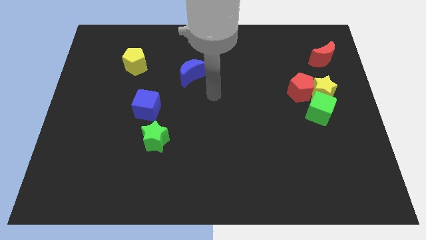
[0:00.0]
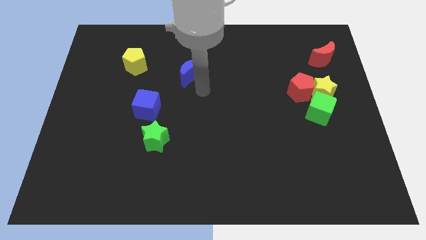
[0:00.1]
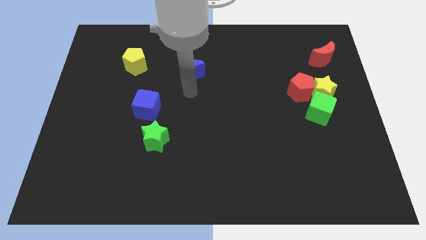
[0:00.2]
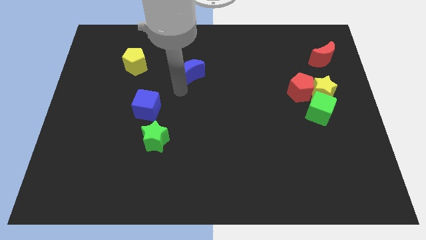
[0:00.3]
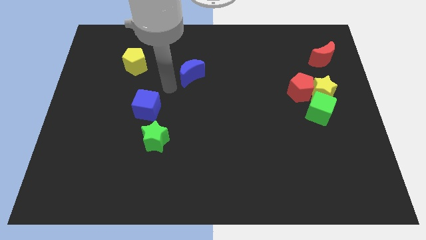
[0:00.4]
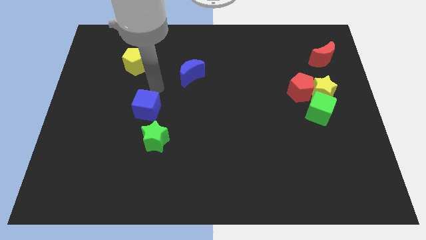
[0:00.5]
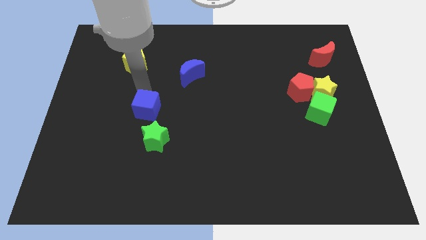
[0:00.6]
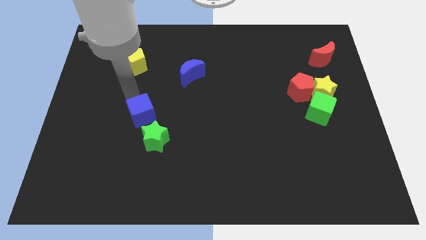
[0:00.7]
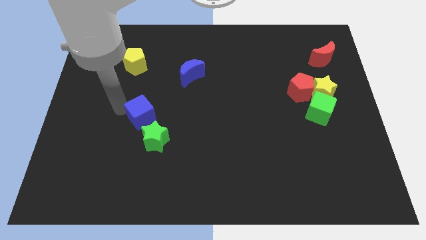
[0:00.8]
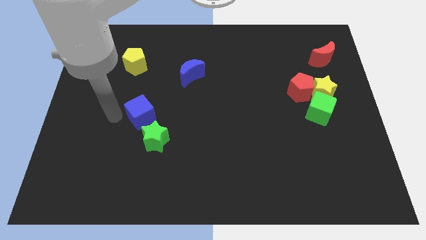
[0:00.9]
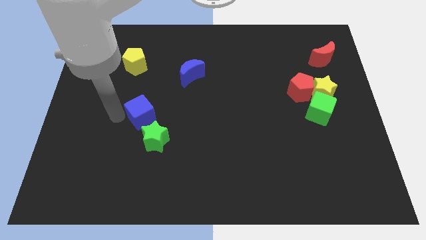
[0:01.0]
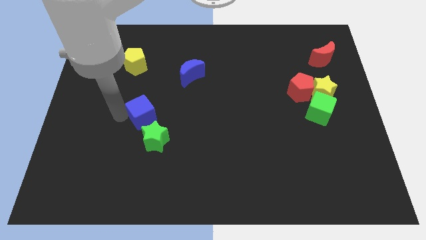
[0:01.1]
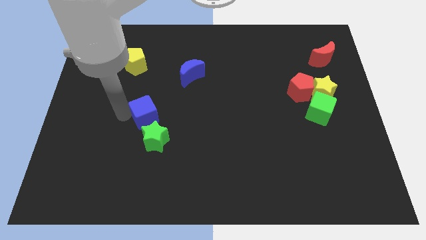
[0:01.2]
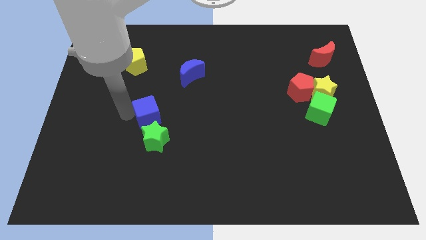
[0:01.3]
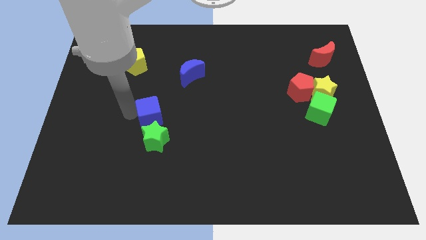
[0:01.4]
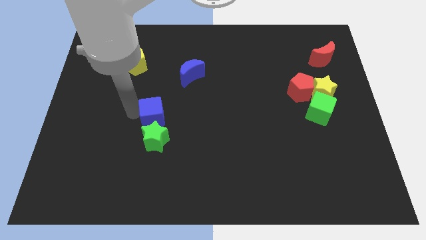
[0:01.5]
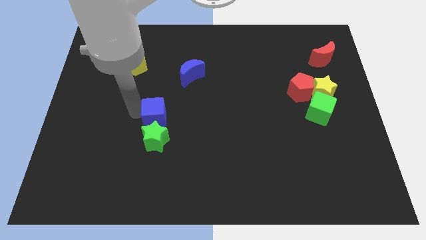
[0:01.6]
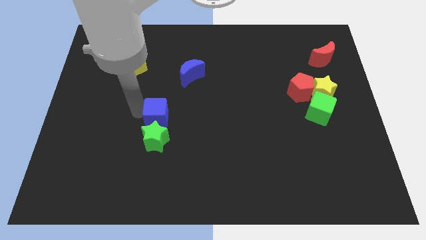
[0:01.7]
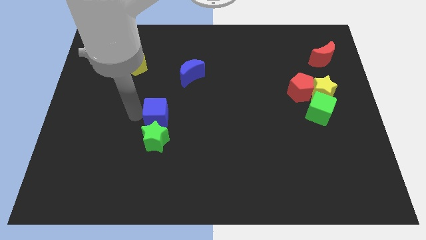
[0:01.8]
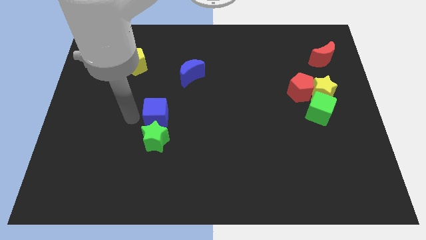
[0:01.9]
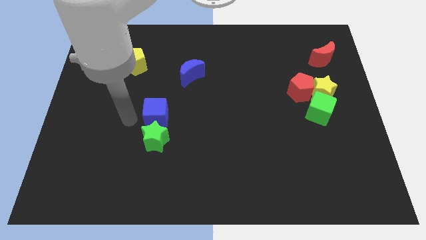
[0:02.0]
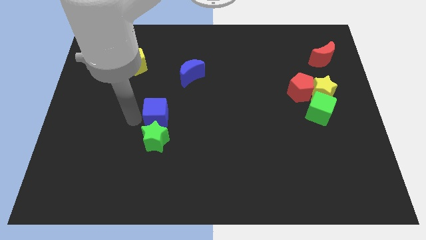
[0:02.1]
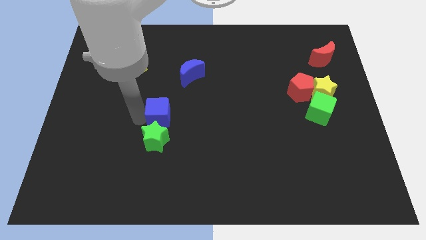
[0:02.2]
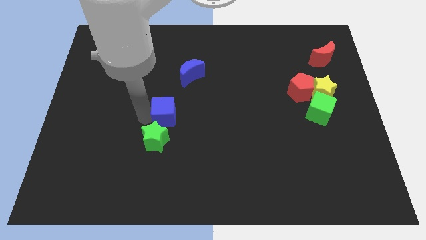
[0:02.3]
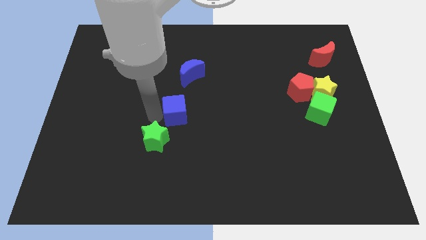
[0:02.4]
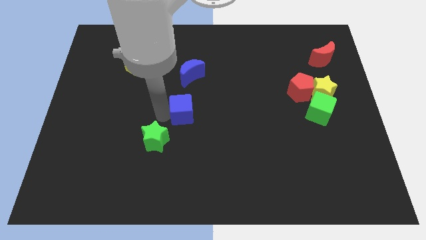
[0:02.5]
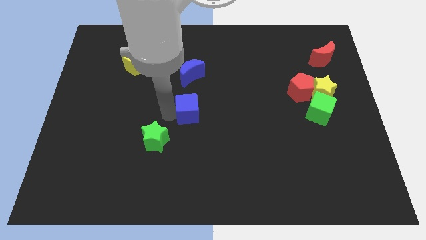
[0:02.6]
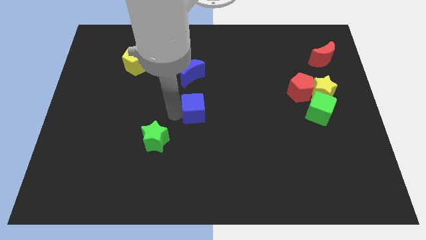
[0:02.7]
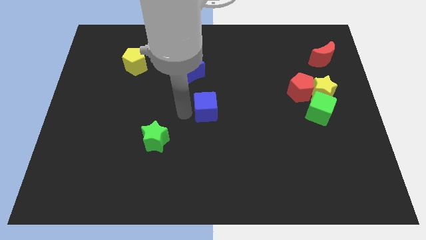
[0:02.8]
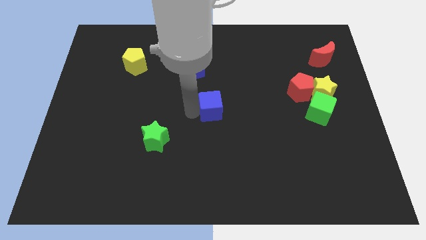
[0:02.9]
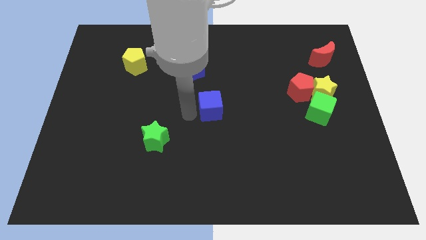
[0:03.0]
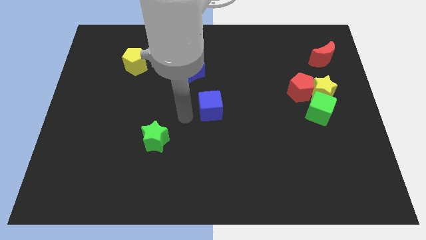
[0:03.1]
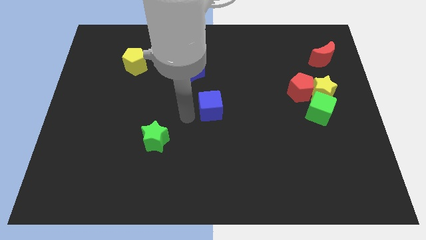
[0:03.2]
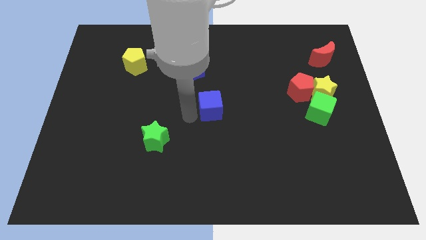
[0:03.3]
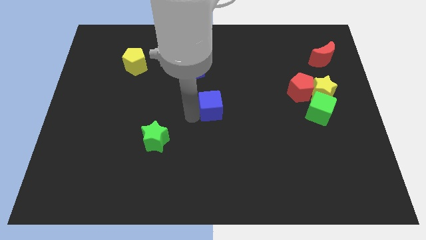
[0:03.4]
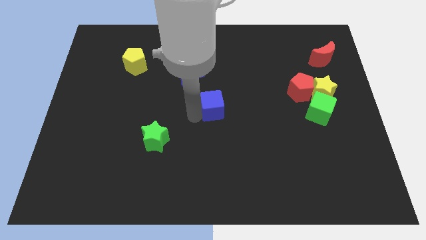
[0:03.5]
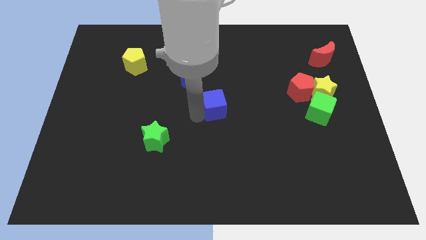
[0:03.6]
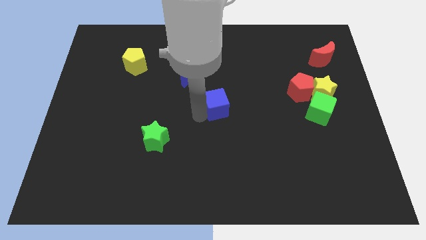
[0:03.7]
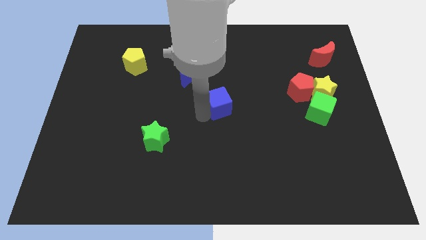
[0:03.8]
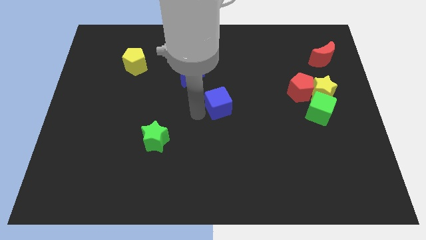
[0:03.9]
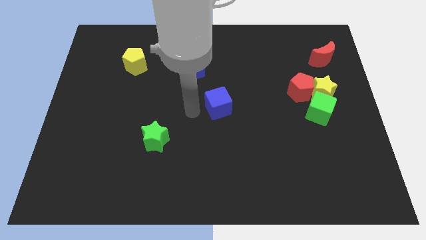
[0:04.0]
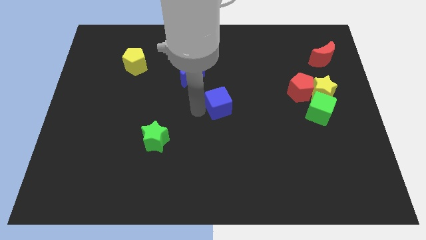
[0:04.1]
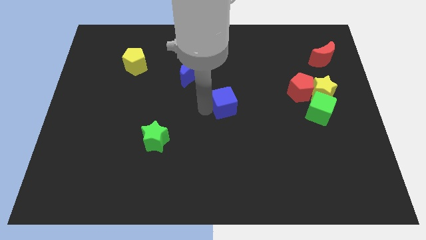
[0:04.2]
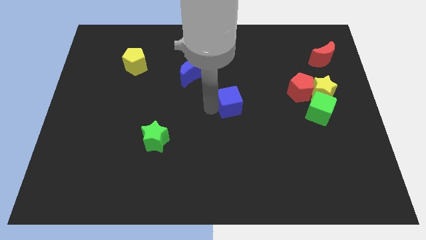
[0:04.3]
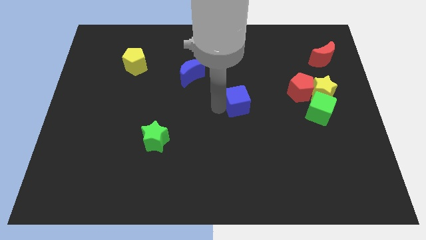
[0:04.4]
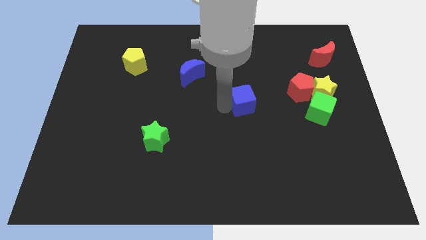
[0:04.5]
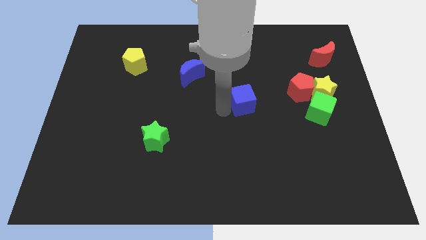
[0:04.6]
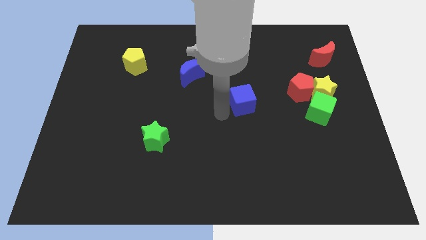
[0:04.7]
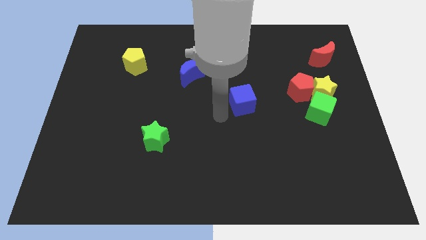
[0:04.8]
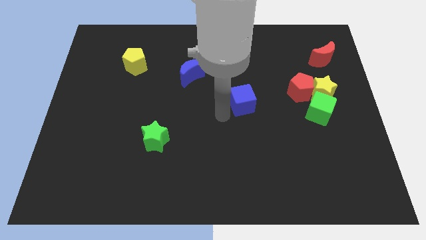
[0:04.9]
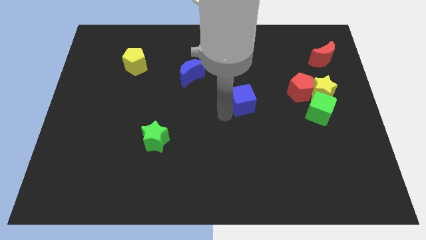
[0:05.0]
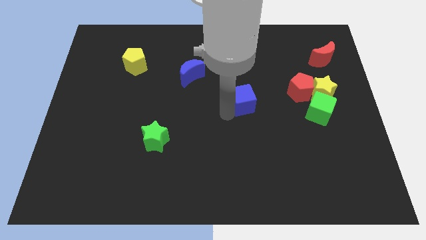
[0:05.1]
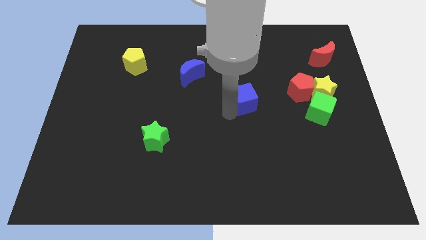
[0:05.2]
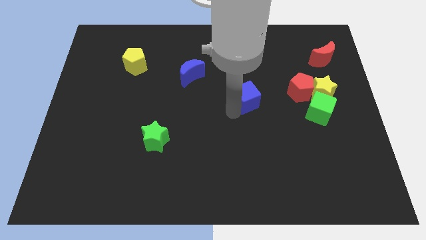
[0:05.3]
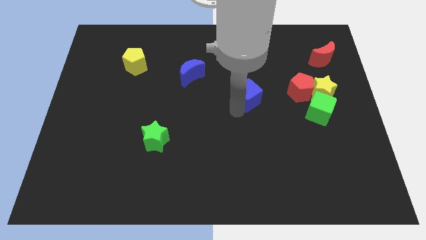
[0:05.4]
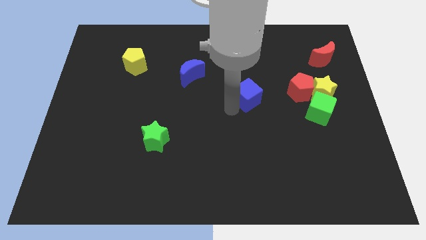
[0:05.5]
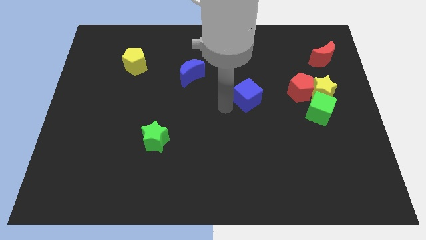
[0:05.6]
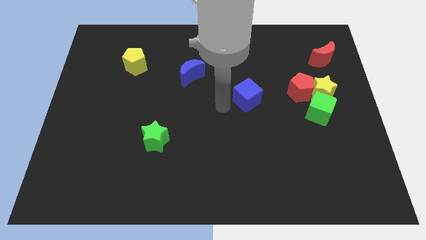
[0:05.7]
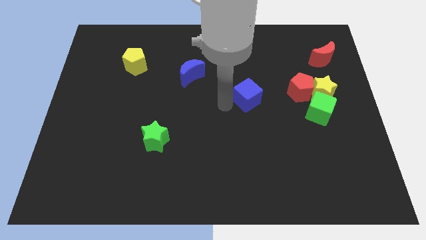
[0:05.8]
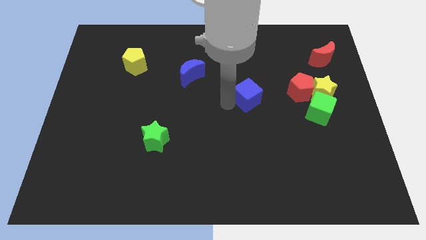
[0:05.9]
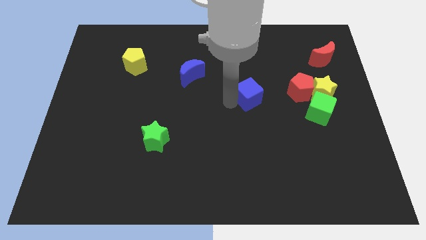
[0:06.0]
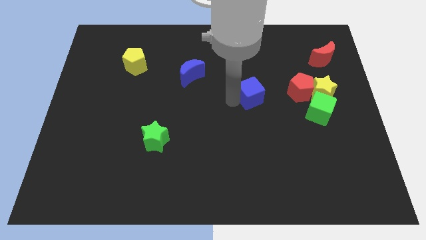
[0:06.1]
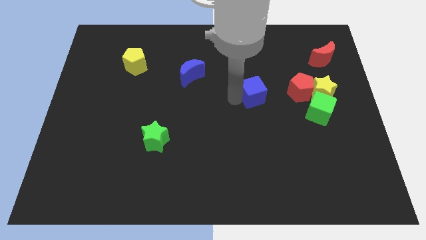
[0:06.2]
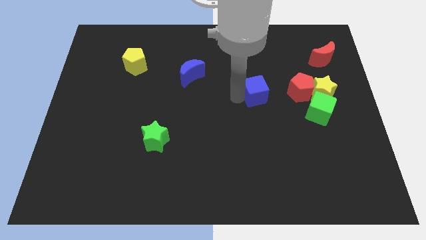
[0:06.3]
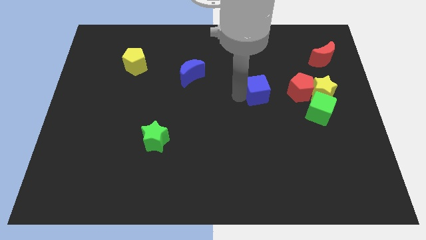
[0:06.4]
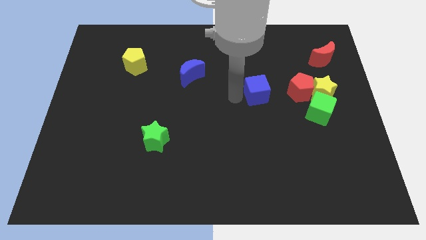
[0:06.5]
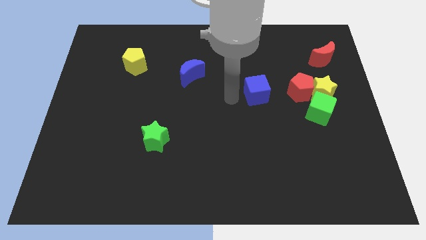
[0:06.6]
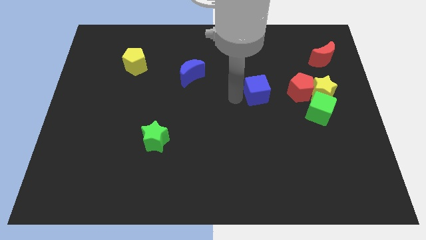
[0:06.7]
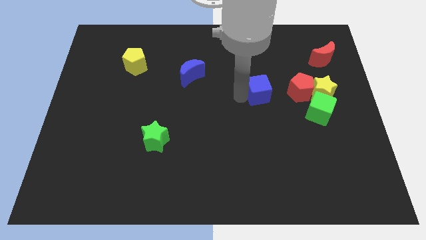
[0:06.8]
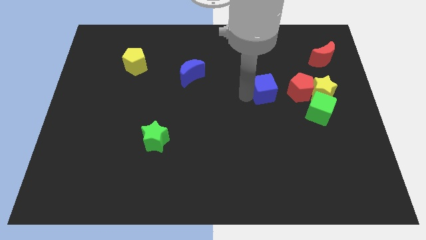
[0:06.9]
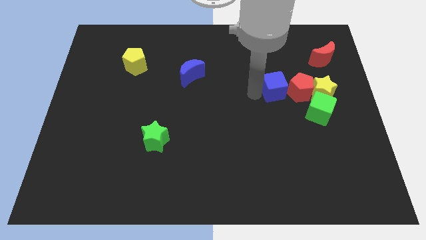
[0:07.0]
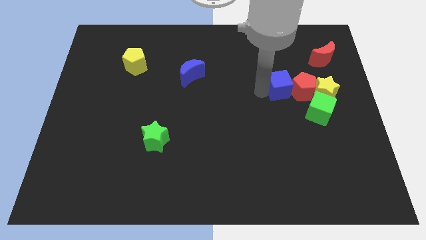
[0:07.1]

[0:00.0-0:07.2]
slide the blue cube close to the red pentagon
